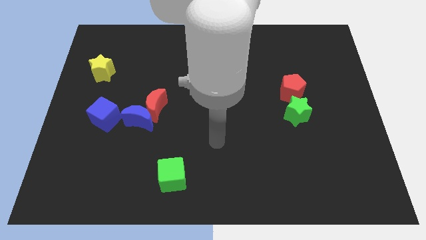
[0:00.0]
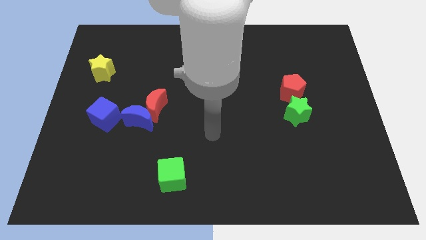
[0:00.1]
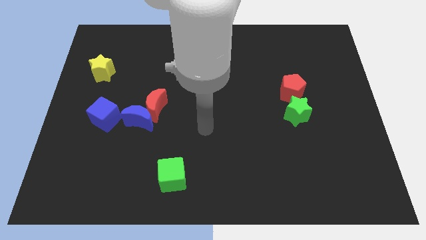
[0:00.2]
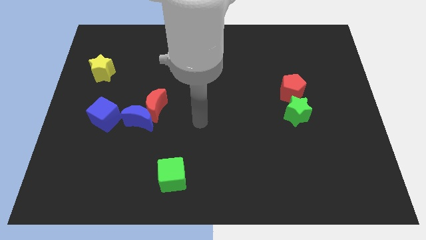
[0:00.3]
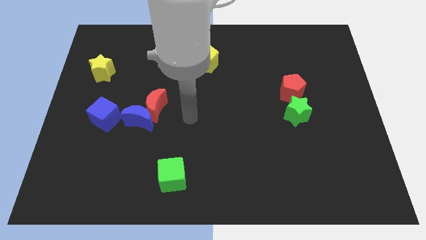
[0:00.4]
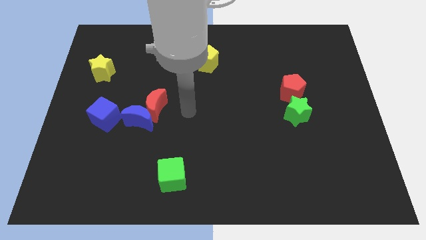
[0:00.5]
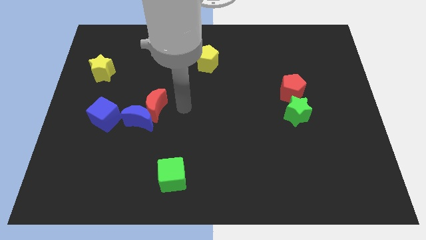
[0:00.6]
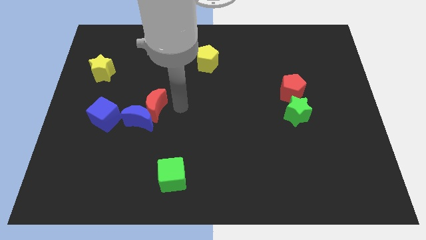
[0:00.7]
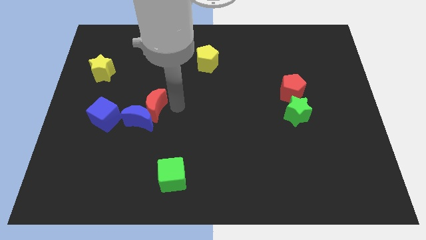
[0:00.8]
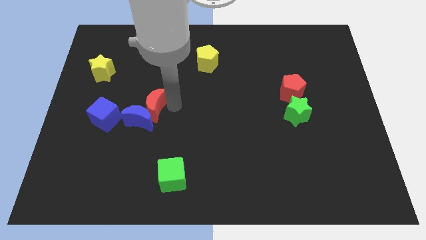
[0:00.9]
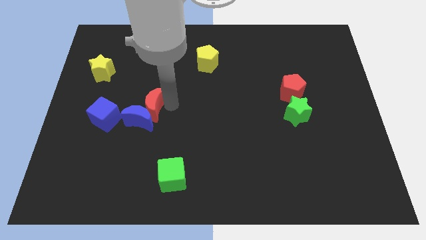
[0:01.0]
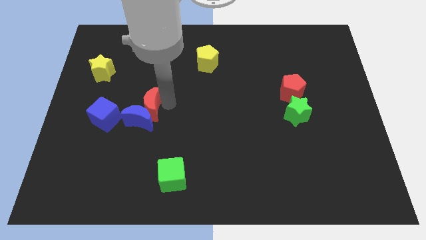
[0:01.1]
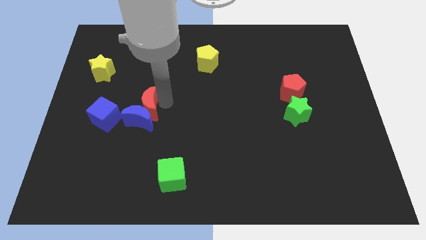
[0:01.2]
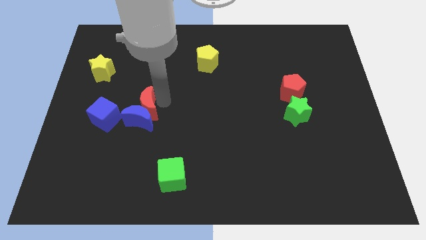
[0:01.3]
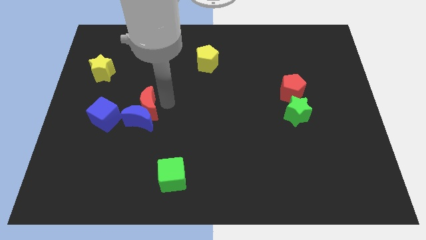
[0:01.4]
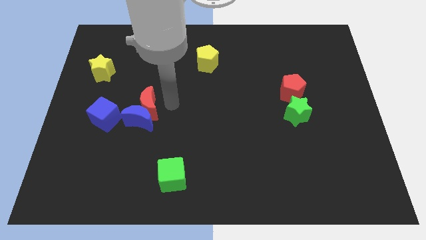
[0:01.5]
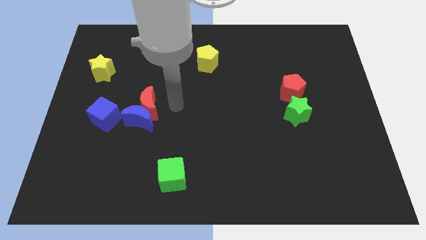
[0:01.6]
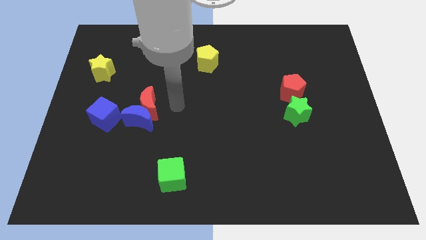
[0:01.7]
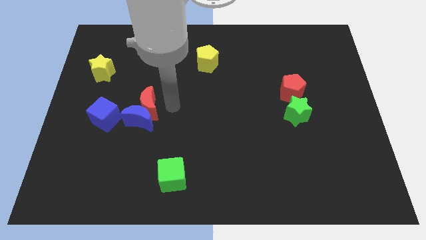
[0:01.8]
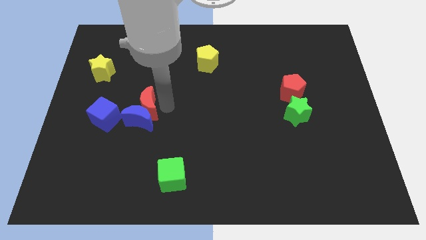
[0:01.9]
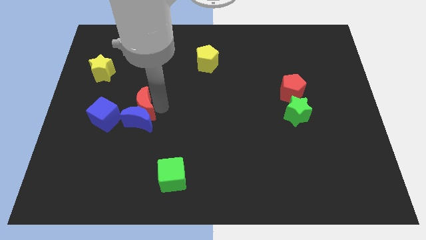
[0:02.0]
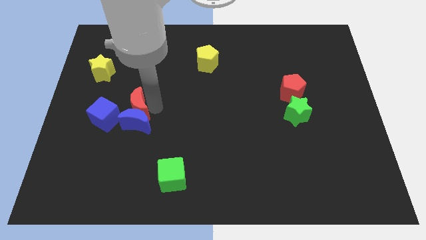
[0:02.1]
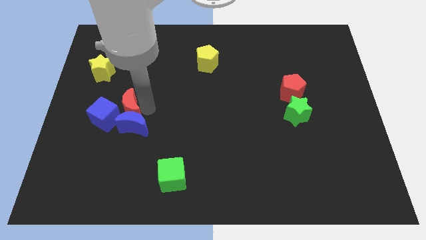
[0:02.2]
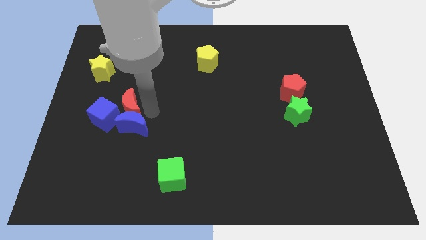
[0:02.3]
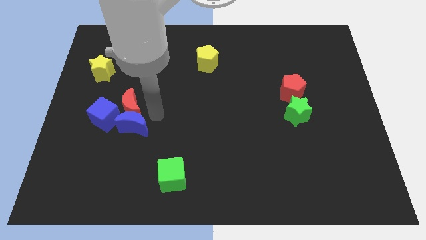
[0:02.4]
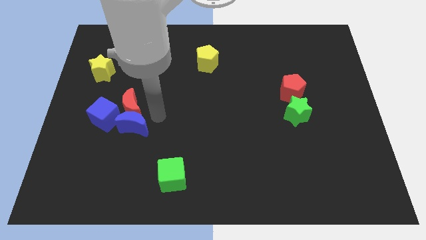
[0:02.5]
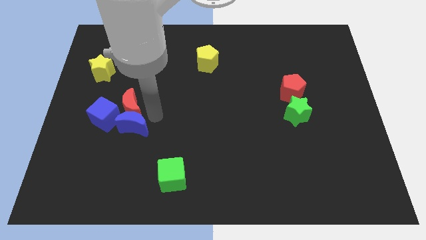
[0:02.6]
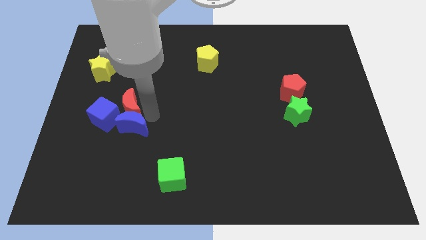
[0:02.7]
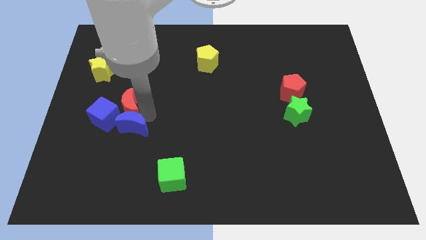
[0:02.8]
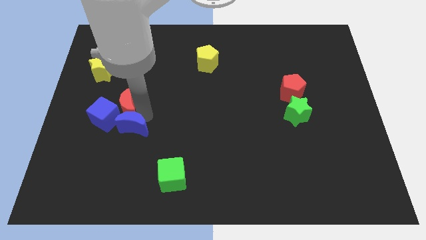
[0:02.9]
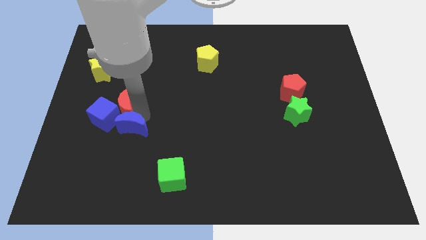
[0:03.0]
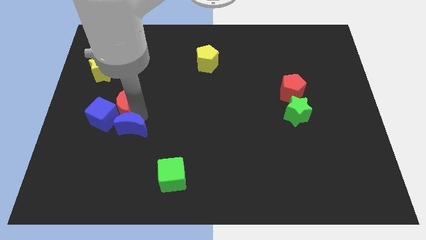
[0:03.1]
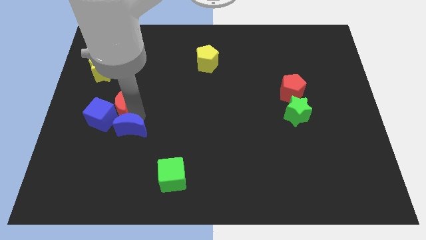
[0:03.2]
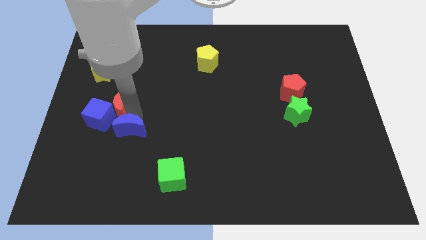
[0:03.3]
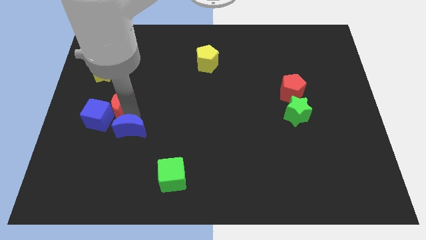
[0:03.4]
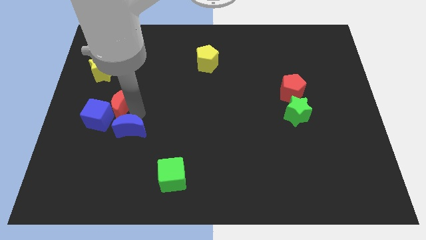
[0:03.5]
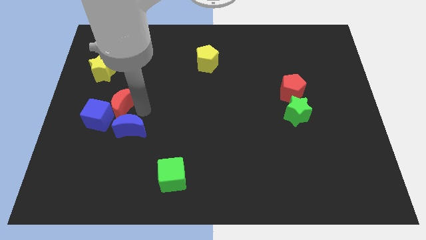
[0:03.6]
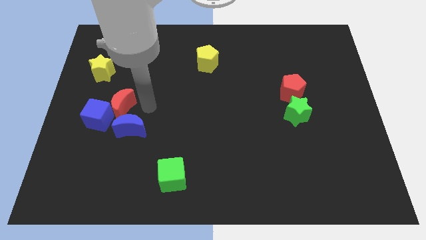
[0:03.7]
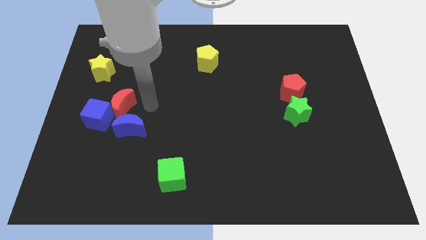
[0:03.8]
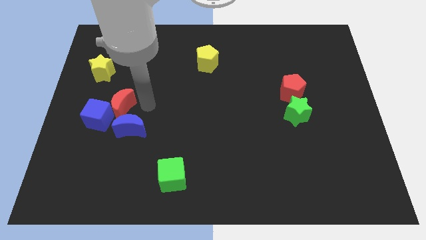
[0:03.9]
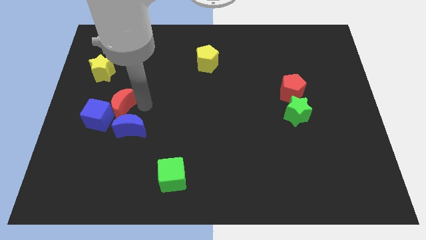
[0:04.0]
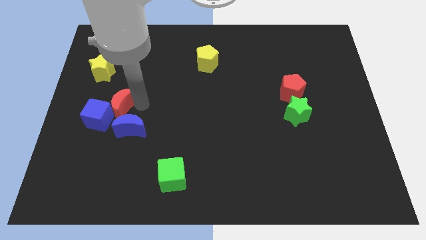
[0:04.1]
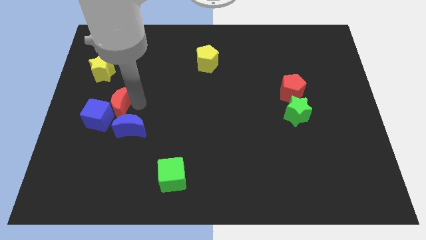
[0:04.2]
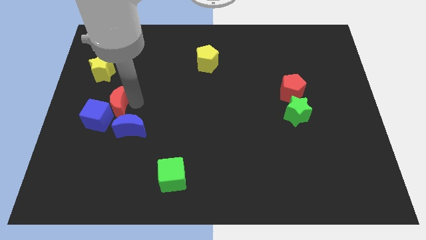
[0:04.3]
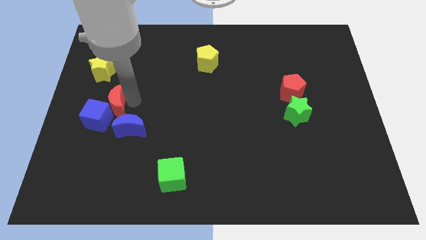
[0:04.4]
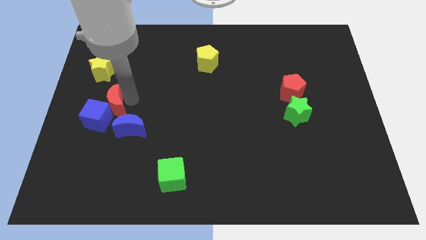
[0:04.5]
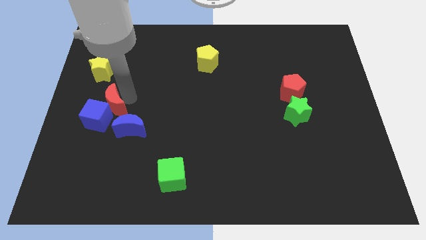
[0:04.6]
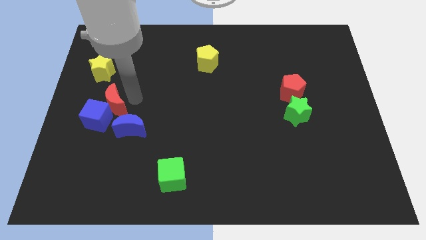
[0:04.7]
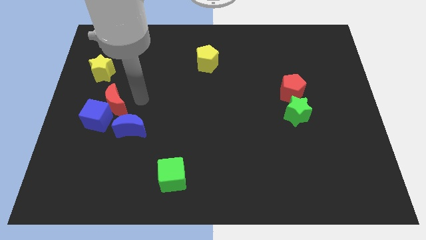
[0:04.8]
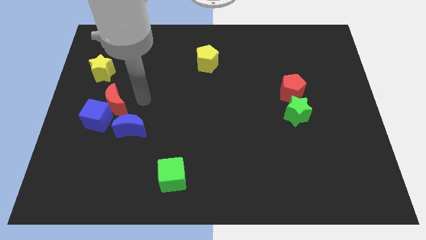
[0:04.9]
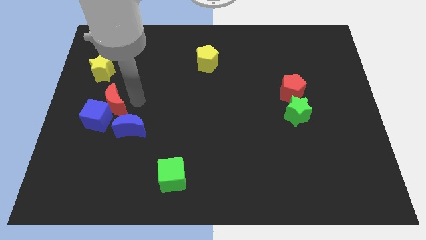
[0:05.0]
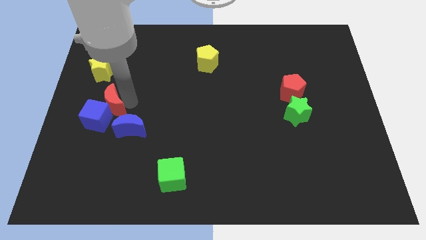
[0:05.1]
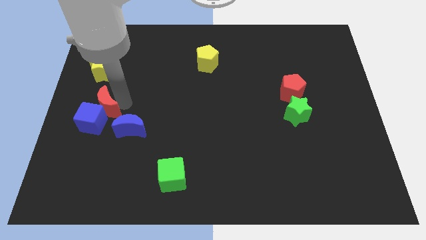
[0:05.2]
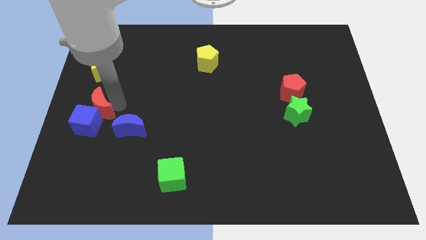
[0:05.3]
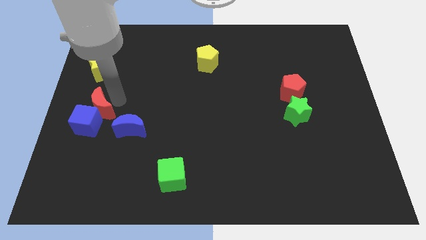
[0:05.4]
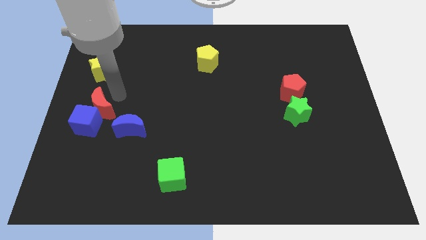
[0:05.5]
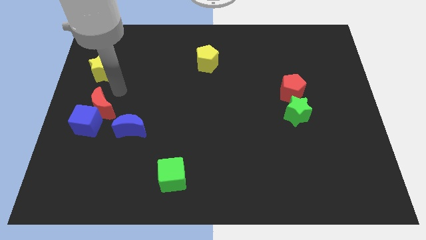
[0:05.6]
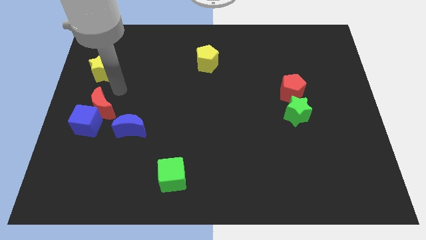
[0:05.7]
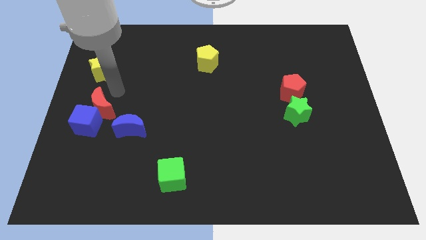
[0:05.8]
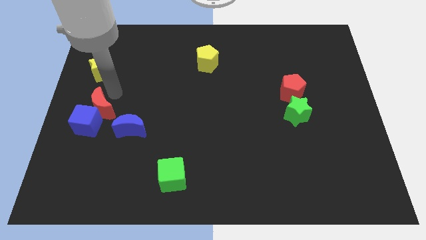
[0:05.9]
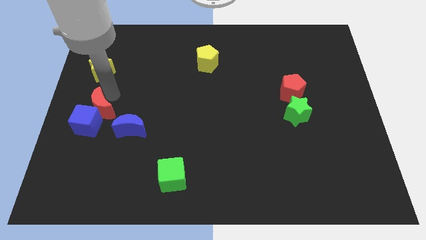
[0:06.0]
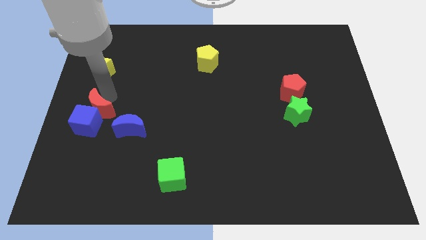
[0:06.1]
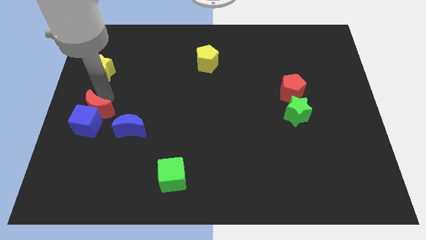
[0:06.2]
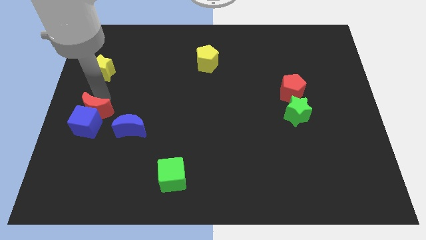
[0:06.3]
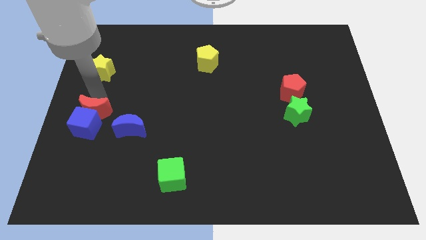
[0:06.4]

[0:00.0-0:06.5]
put the red moon to the left side of the blue moon

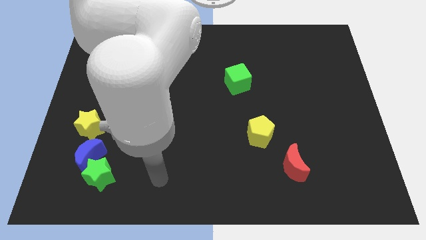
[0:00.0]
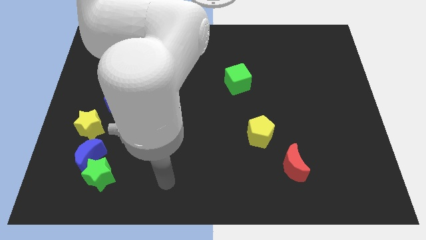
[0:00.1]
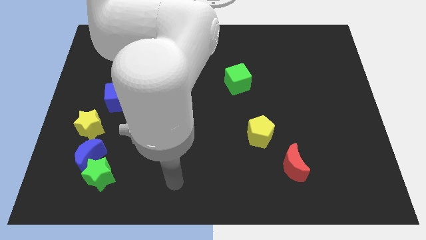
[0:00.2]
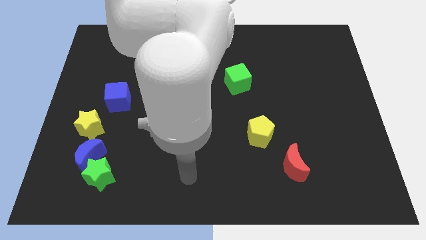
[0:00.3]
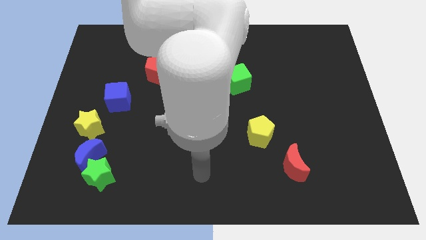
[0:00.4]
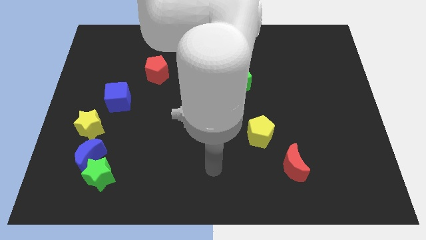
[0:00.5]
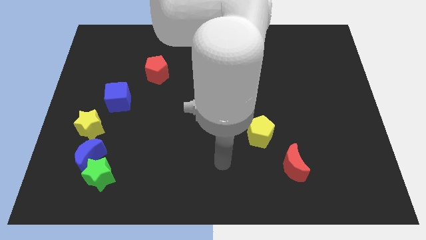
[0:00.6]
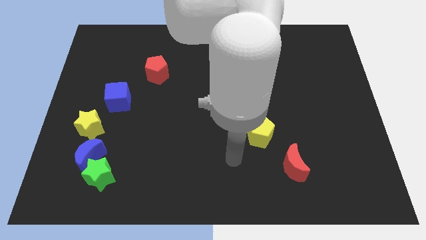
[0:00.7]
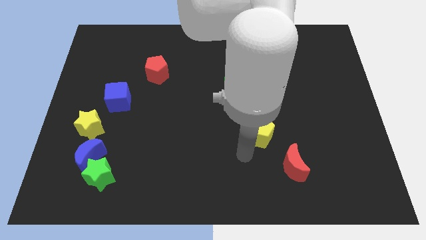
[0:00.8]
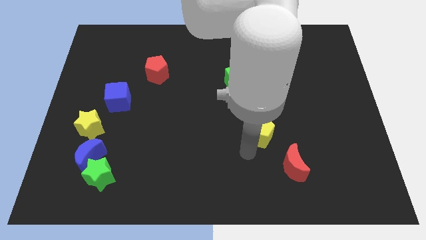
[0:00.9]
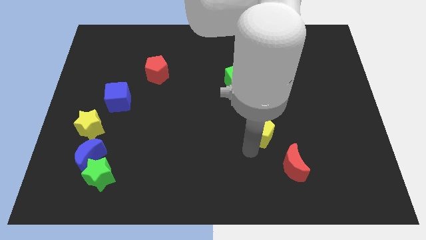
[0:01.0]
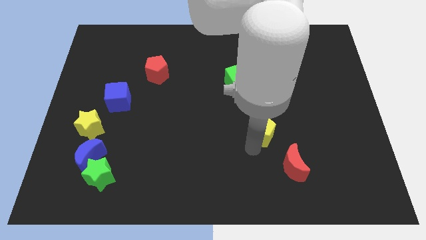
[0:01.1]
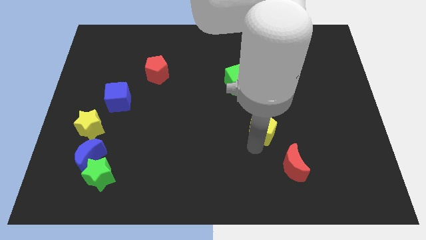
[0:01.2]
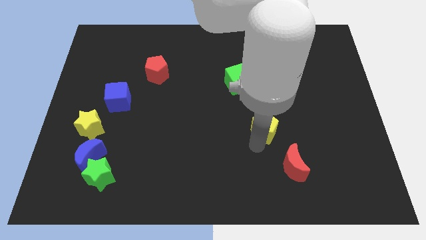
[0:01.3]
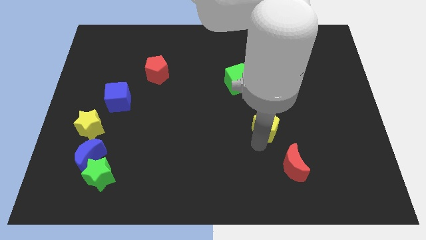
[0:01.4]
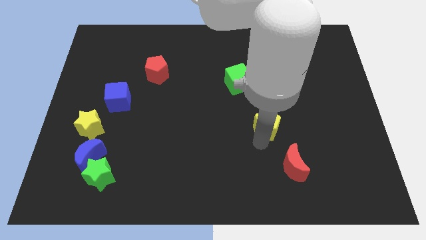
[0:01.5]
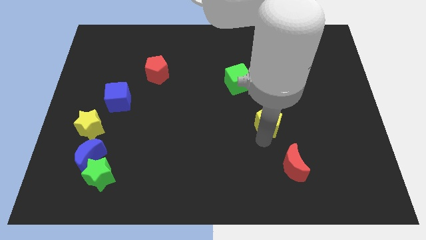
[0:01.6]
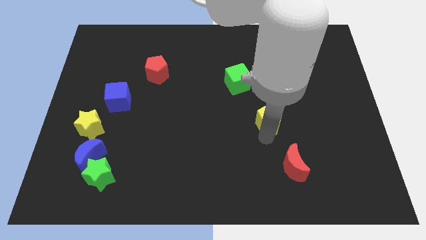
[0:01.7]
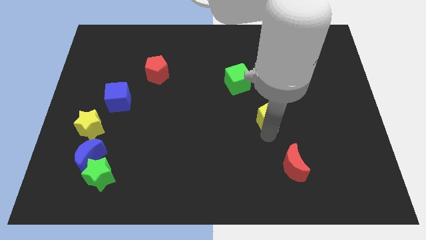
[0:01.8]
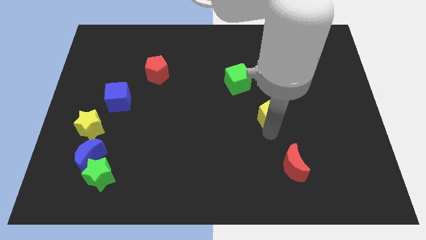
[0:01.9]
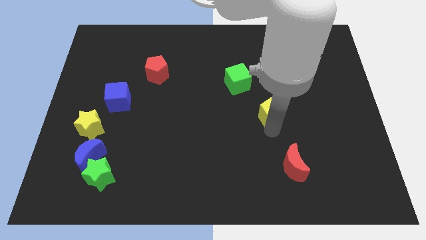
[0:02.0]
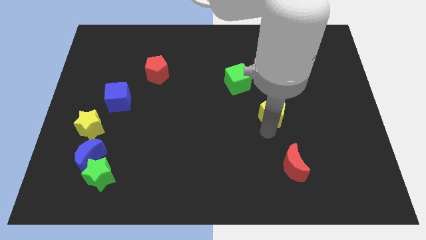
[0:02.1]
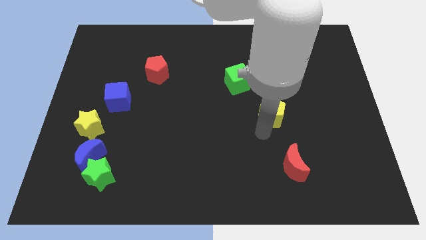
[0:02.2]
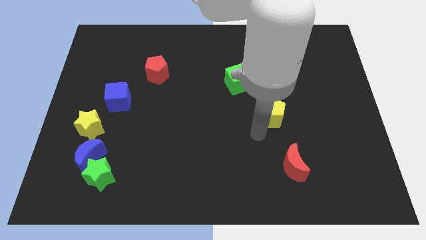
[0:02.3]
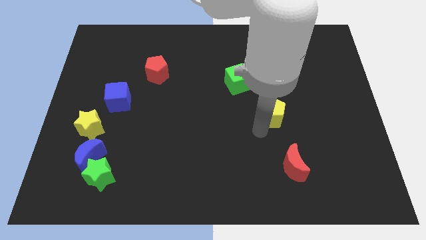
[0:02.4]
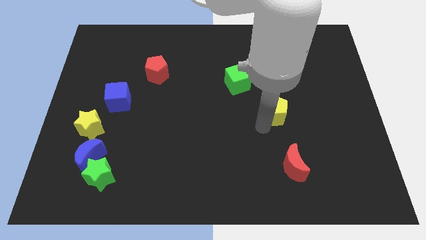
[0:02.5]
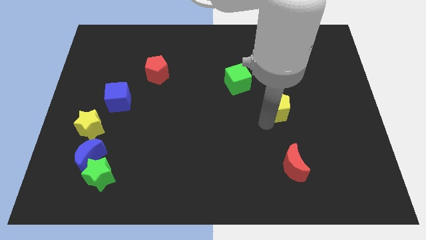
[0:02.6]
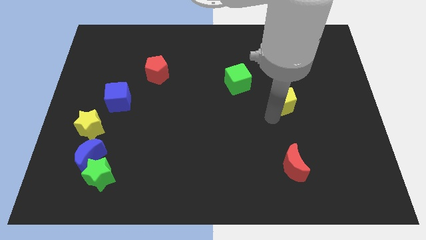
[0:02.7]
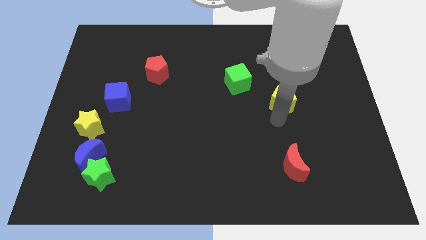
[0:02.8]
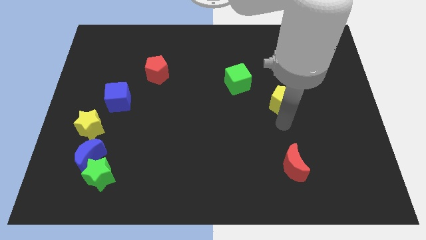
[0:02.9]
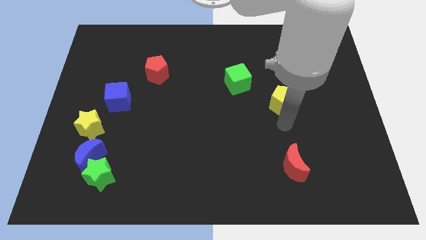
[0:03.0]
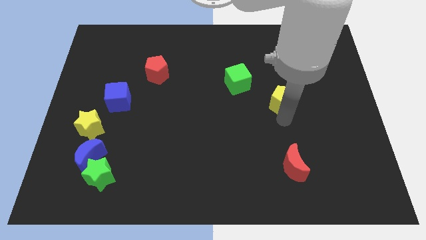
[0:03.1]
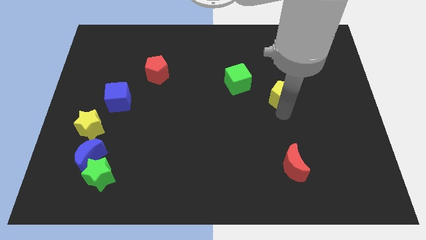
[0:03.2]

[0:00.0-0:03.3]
move the yellow pentagon just right of the green cube
